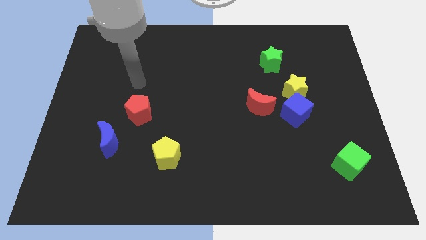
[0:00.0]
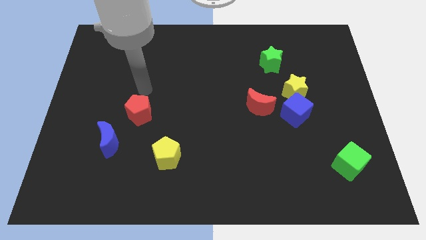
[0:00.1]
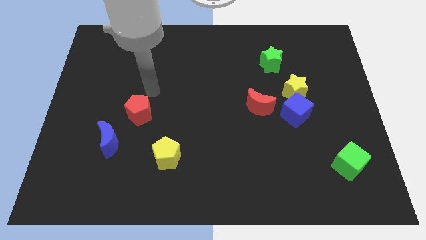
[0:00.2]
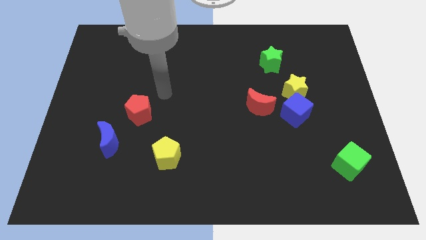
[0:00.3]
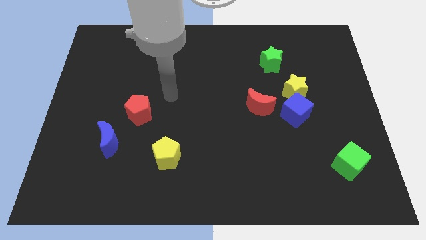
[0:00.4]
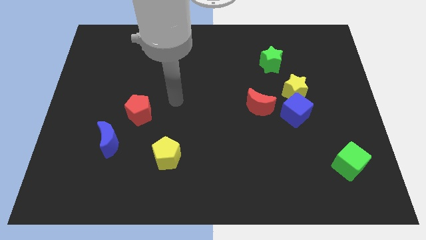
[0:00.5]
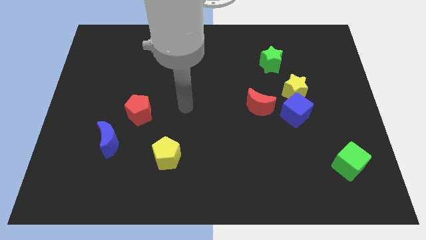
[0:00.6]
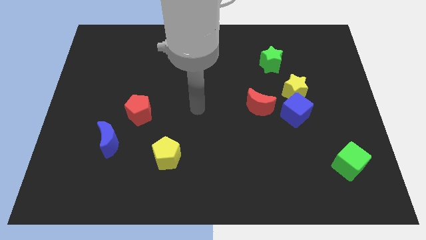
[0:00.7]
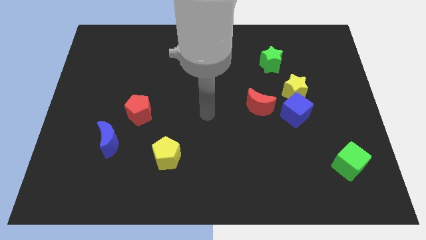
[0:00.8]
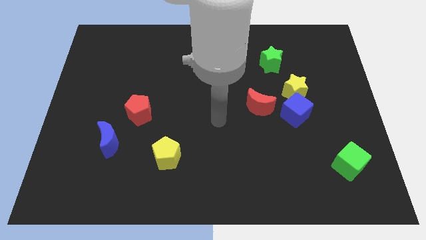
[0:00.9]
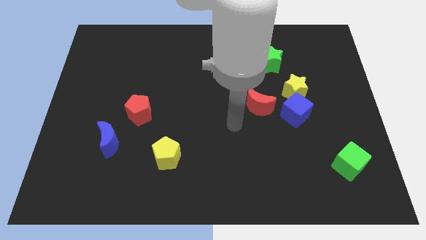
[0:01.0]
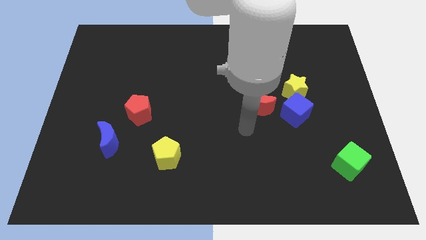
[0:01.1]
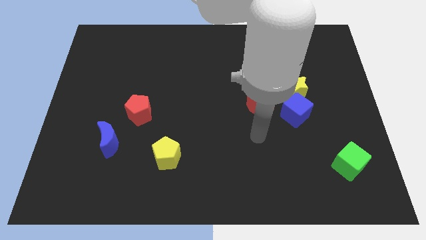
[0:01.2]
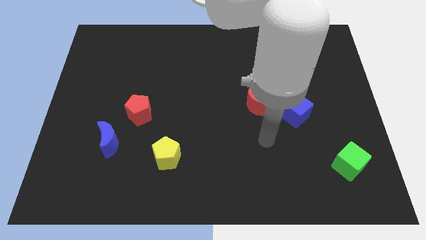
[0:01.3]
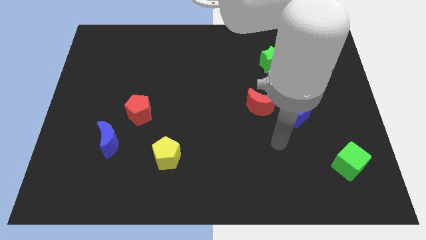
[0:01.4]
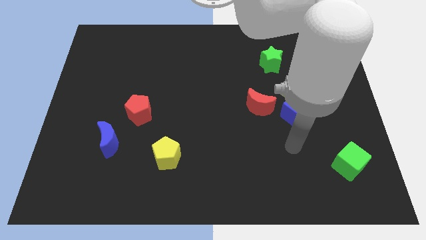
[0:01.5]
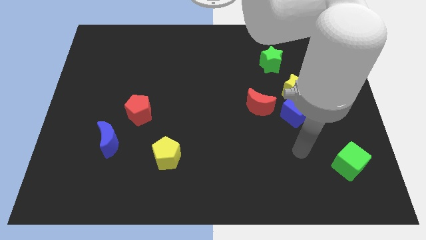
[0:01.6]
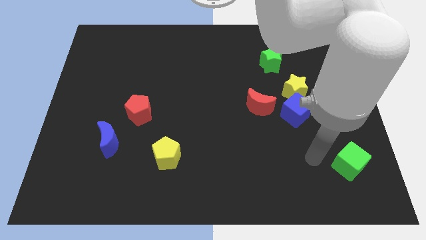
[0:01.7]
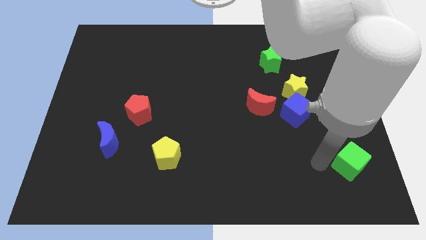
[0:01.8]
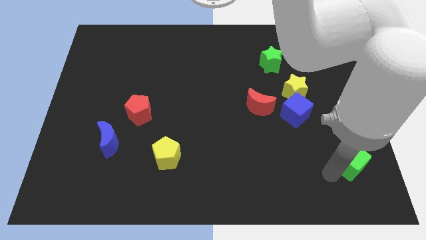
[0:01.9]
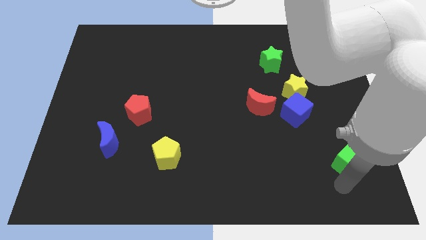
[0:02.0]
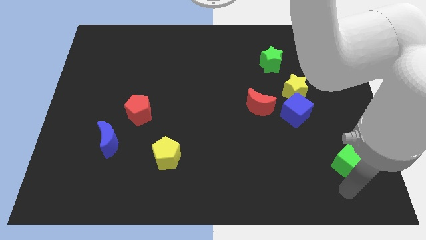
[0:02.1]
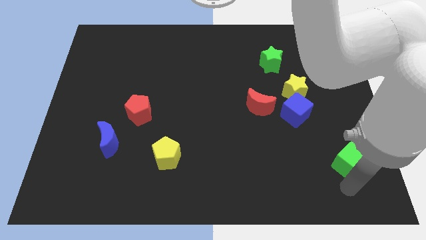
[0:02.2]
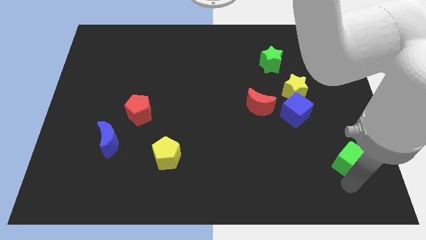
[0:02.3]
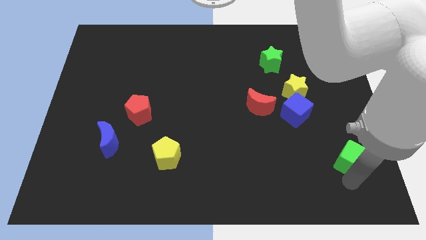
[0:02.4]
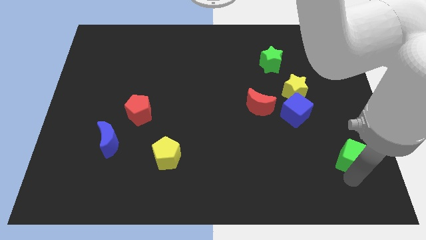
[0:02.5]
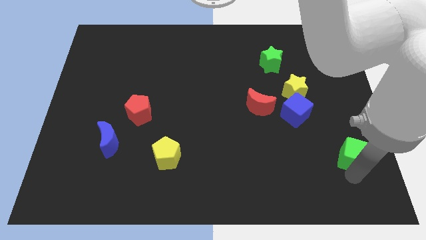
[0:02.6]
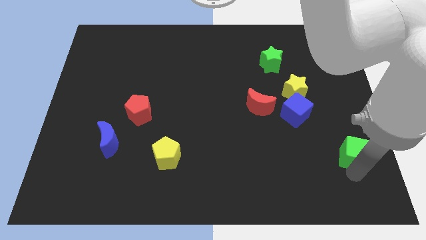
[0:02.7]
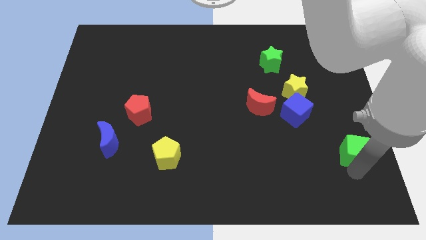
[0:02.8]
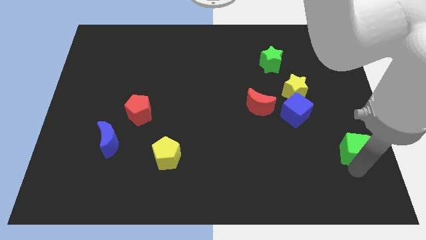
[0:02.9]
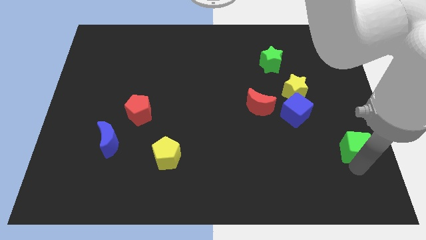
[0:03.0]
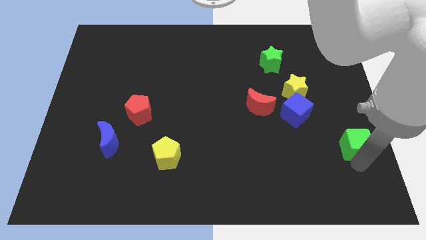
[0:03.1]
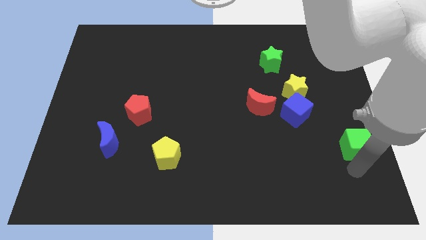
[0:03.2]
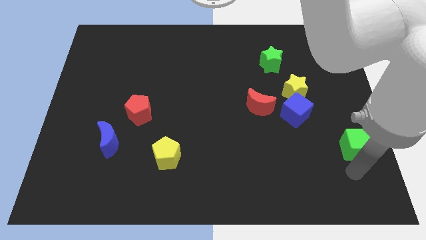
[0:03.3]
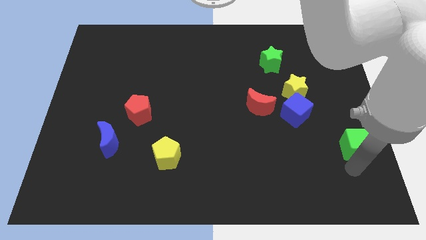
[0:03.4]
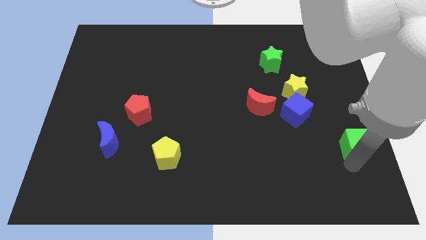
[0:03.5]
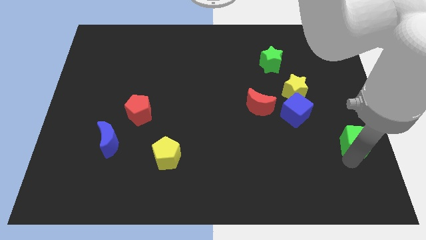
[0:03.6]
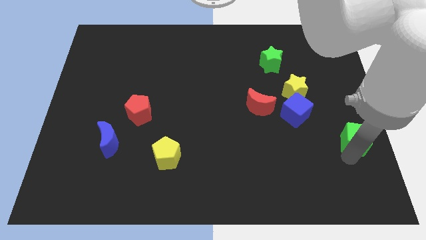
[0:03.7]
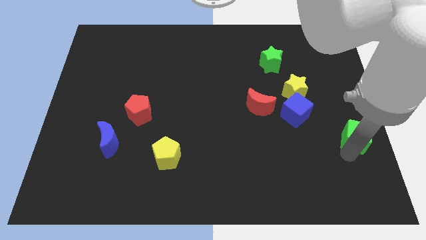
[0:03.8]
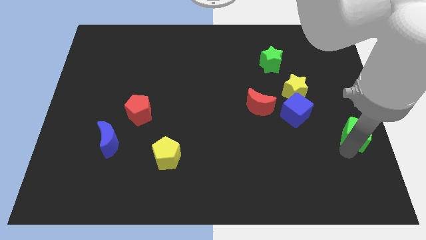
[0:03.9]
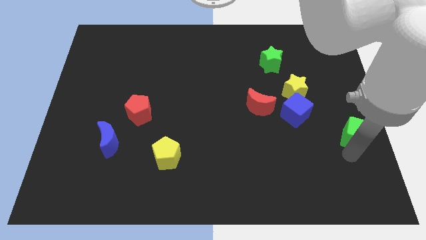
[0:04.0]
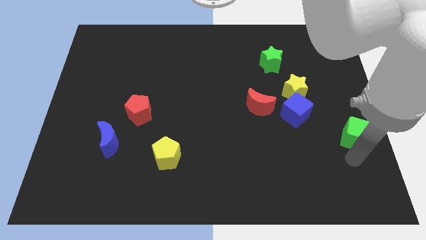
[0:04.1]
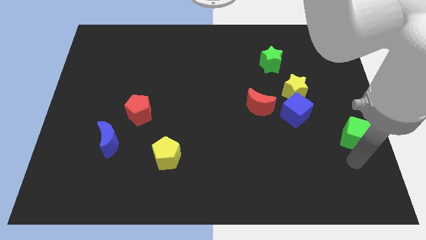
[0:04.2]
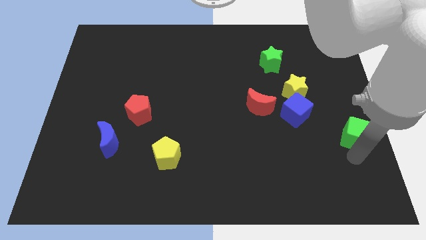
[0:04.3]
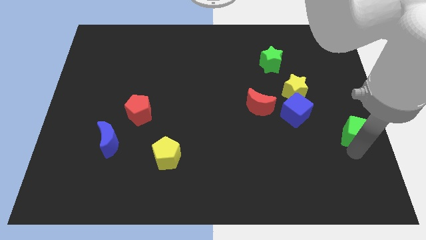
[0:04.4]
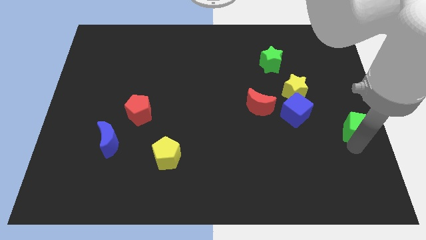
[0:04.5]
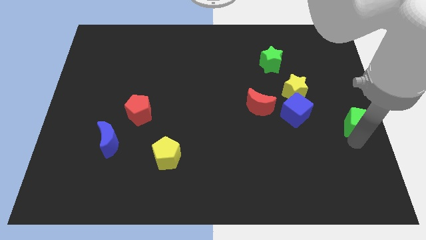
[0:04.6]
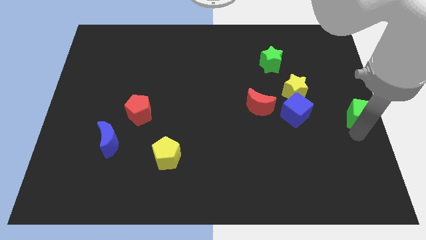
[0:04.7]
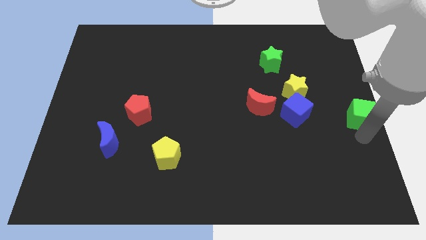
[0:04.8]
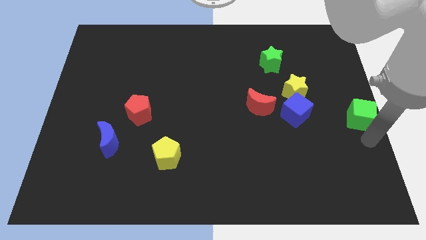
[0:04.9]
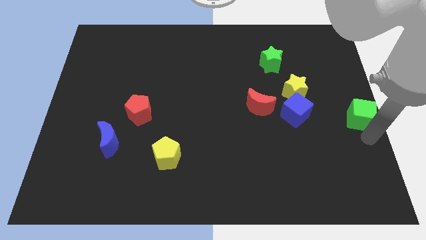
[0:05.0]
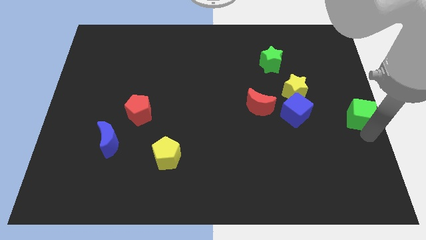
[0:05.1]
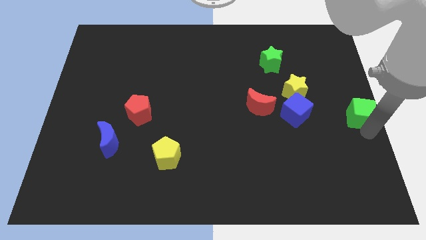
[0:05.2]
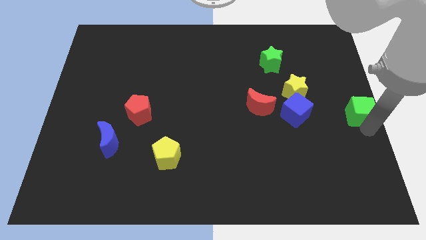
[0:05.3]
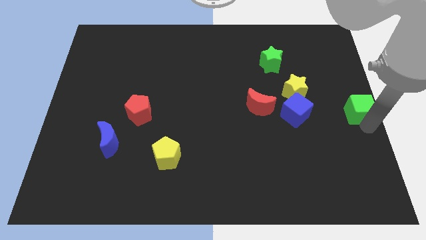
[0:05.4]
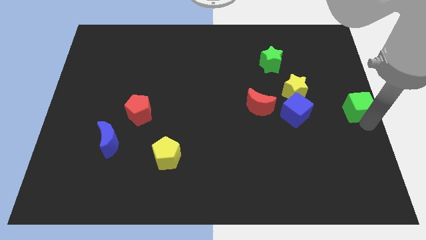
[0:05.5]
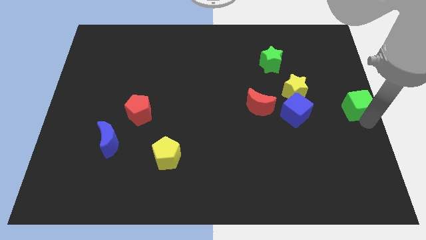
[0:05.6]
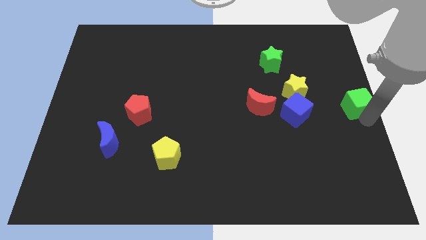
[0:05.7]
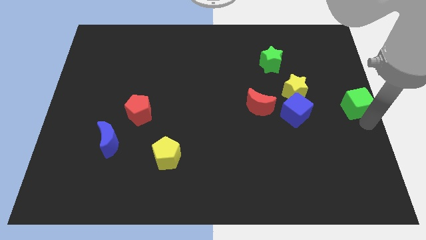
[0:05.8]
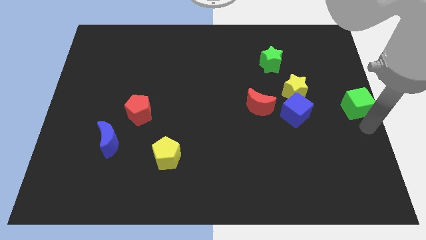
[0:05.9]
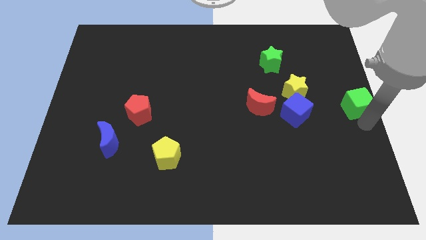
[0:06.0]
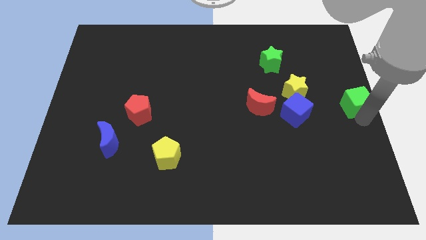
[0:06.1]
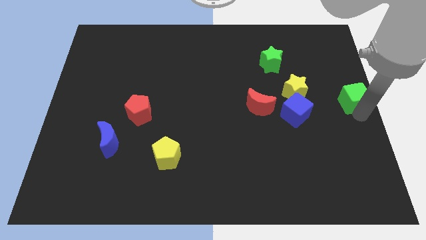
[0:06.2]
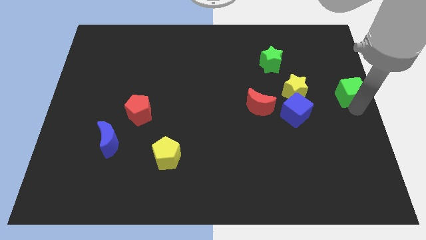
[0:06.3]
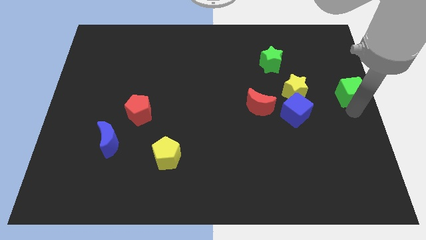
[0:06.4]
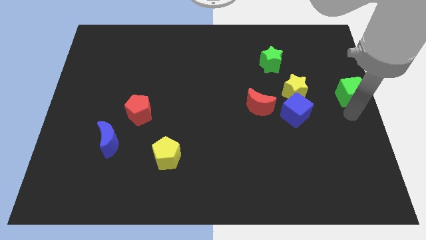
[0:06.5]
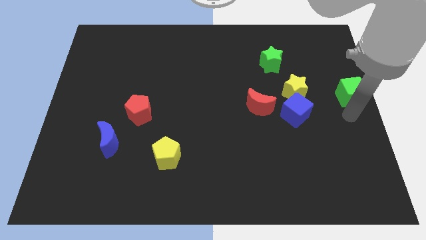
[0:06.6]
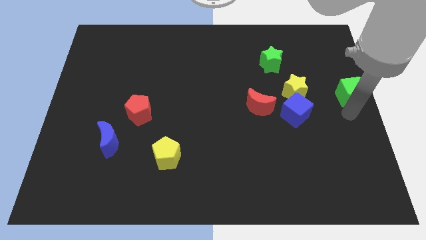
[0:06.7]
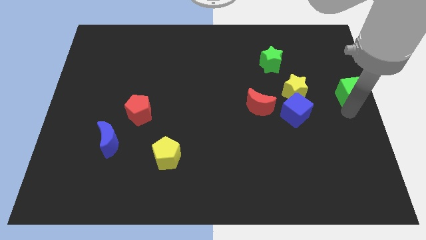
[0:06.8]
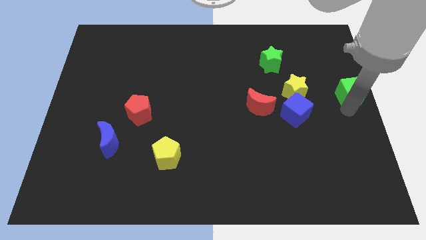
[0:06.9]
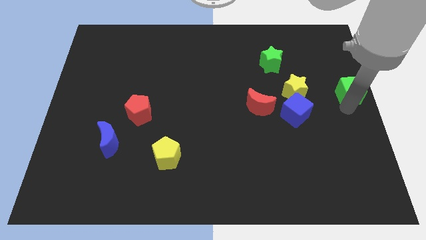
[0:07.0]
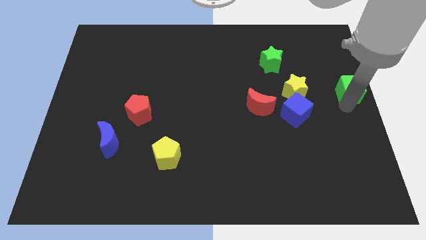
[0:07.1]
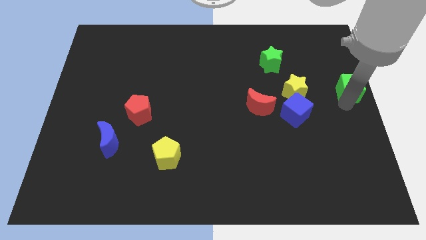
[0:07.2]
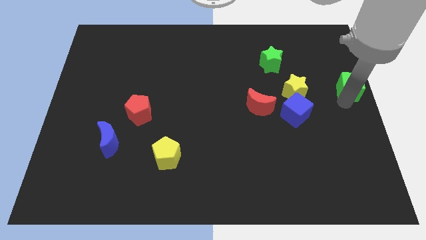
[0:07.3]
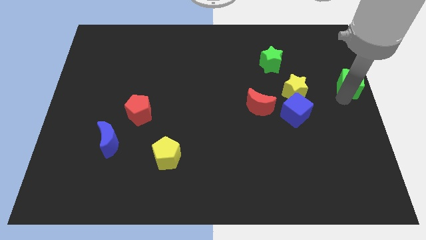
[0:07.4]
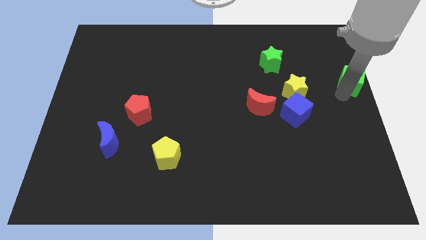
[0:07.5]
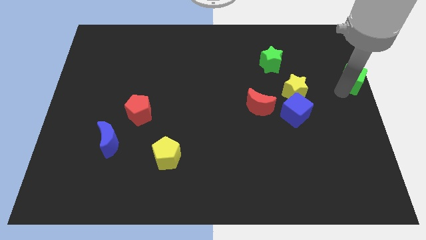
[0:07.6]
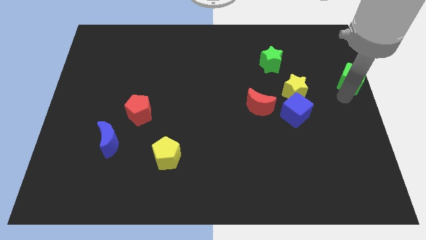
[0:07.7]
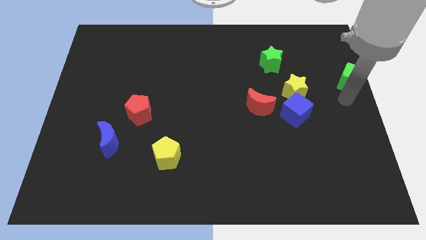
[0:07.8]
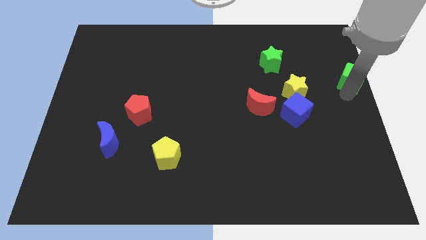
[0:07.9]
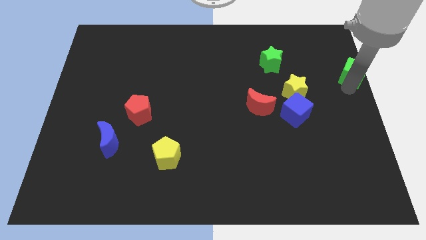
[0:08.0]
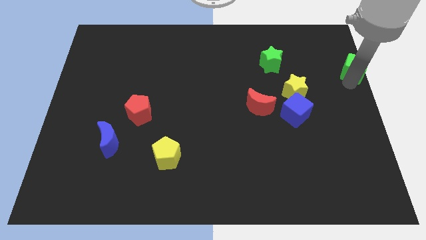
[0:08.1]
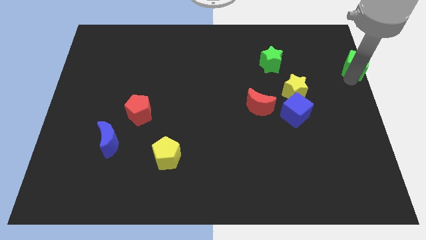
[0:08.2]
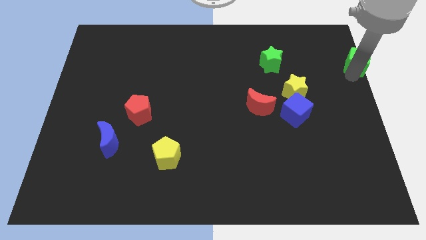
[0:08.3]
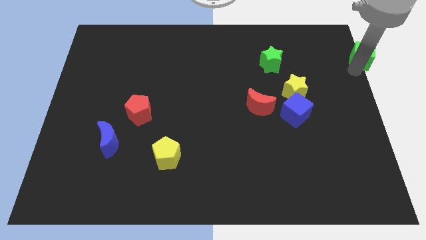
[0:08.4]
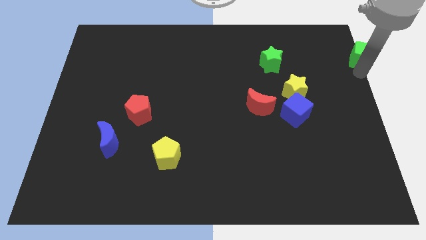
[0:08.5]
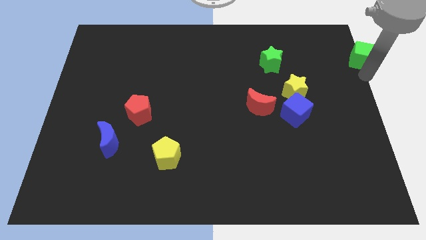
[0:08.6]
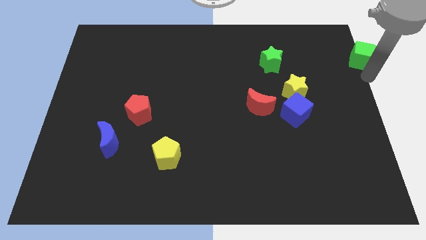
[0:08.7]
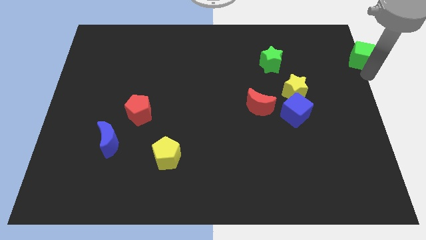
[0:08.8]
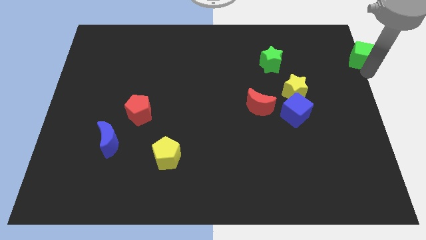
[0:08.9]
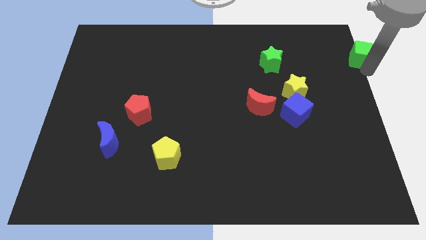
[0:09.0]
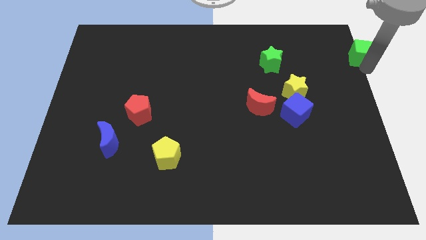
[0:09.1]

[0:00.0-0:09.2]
put the green cube to the top right of the board
